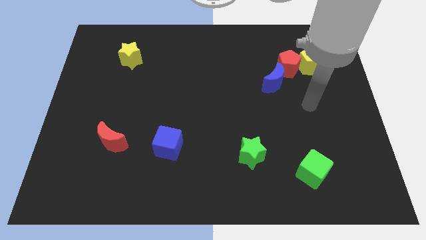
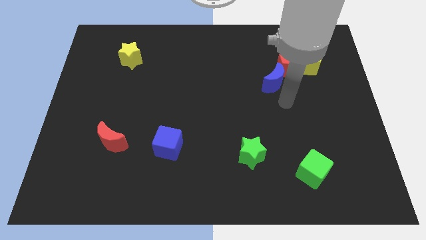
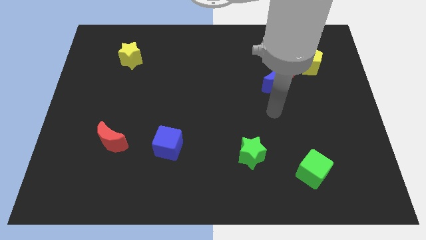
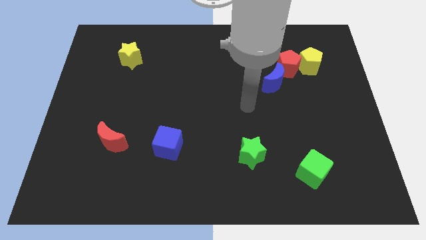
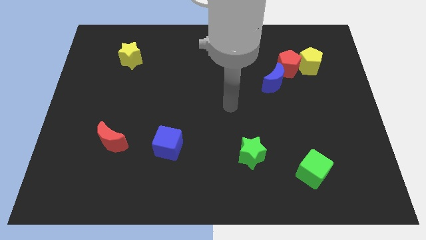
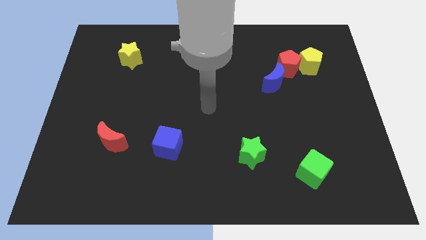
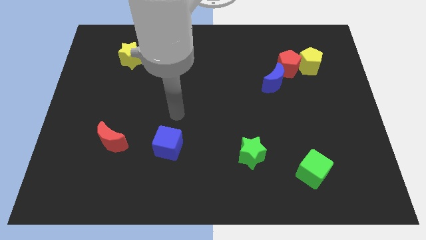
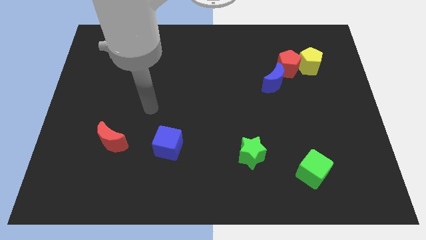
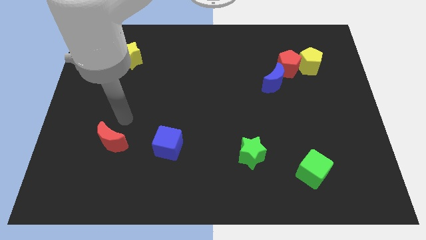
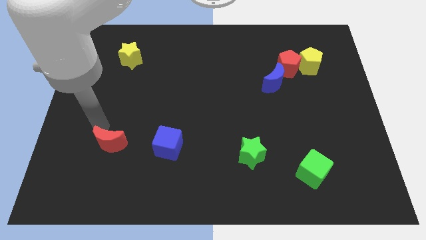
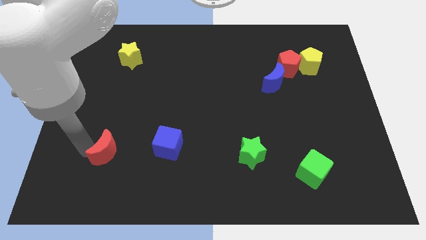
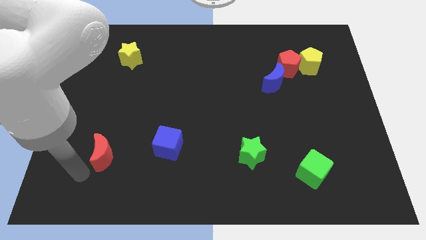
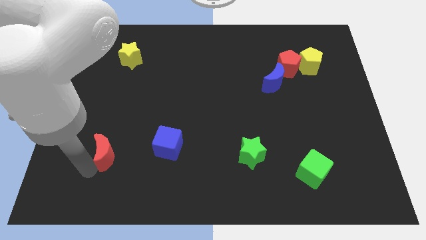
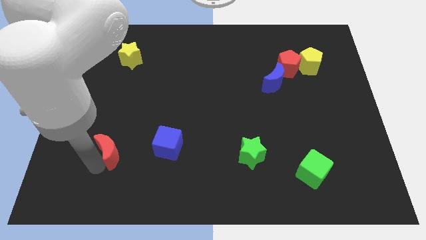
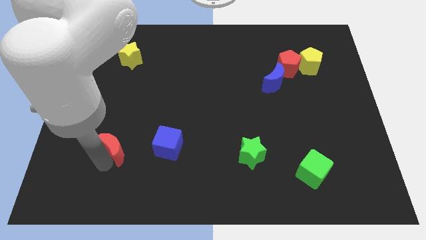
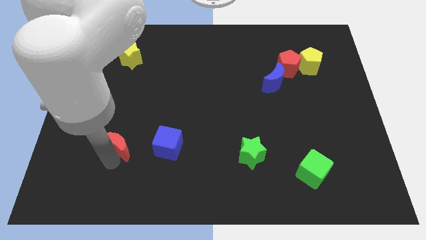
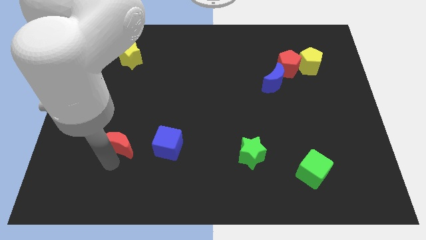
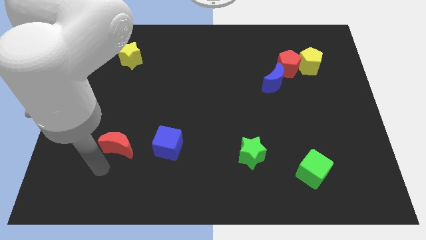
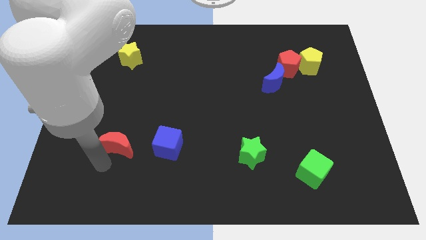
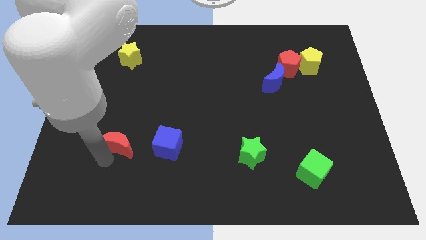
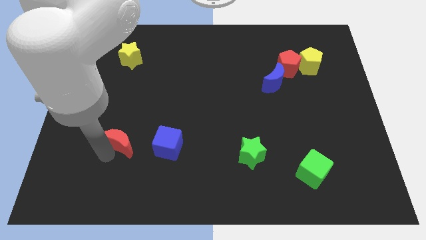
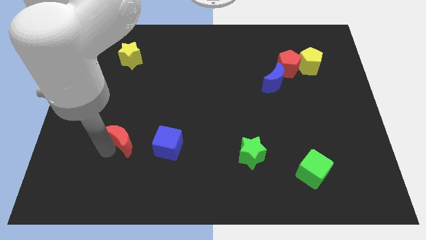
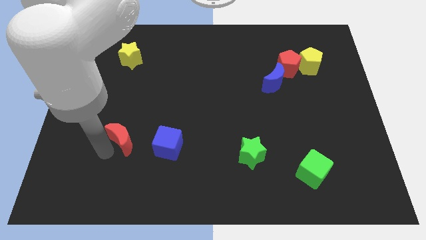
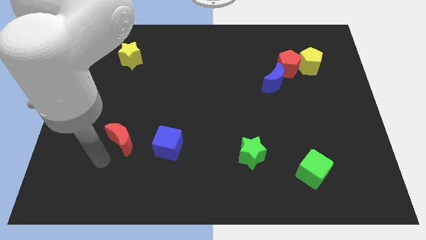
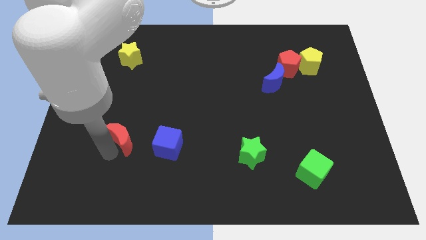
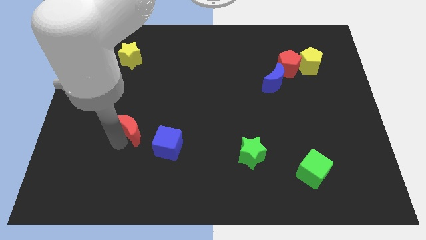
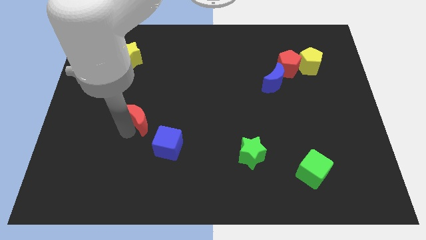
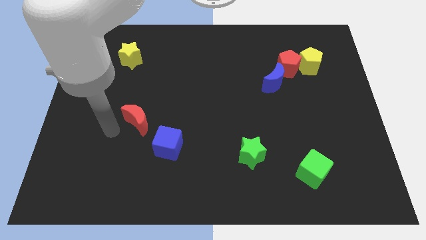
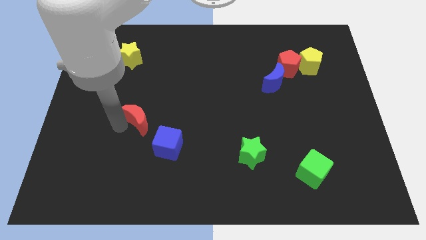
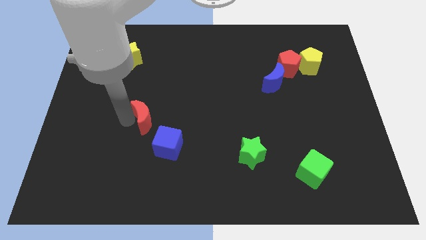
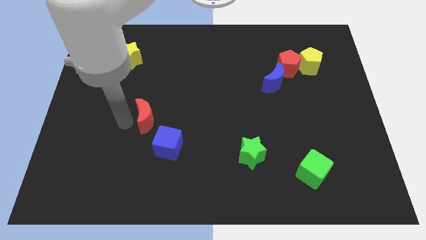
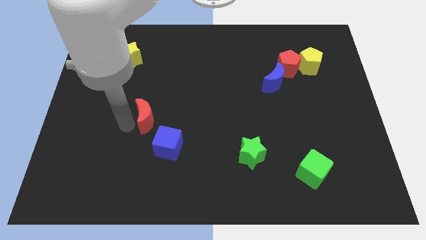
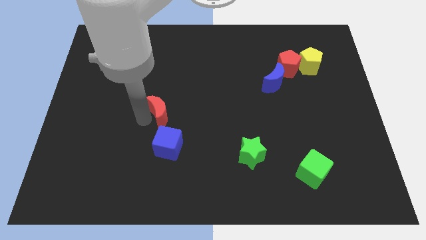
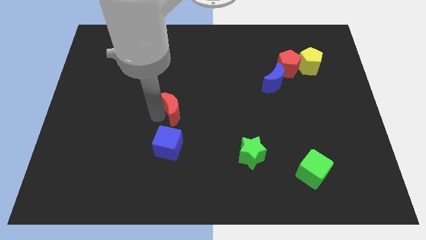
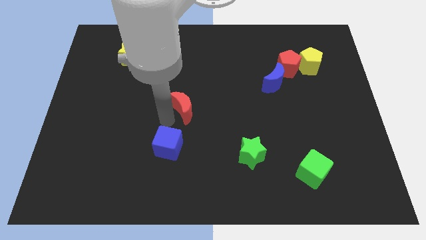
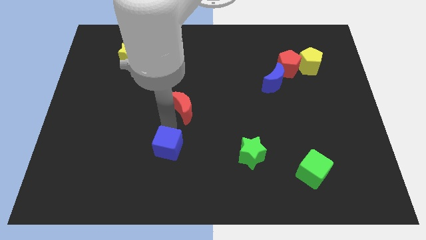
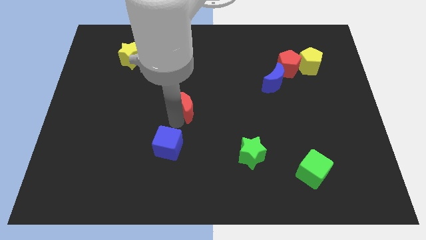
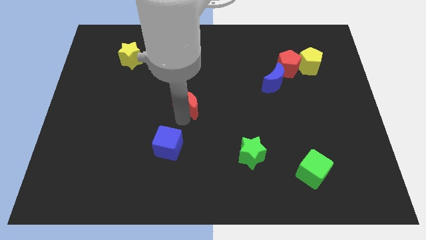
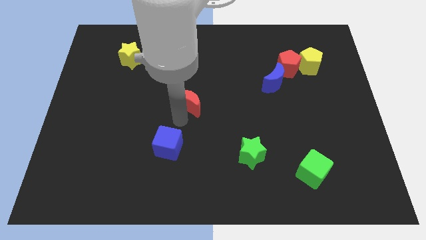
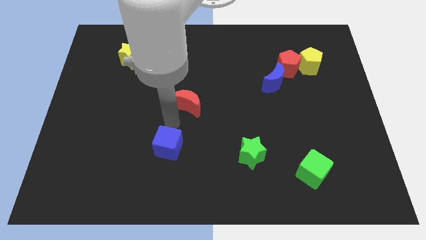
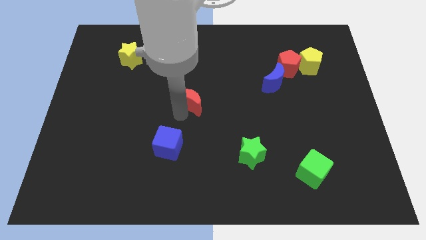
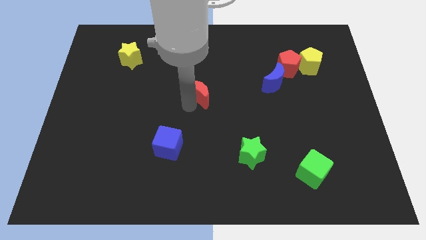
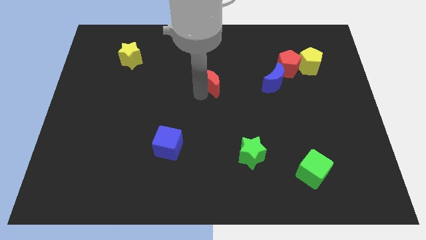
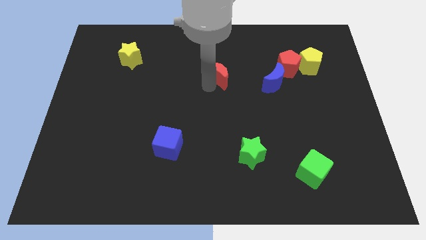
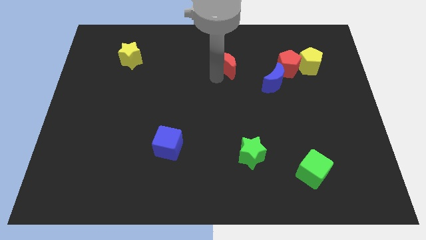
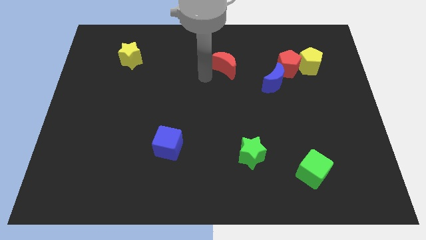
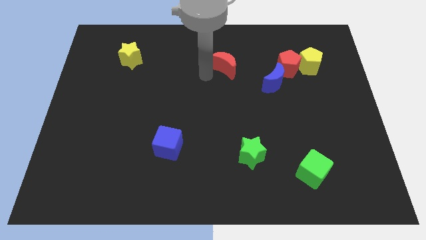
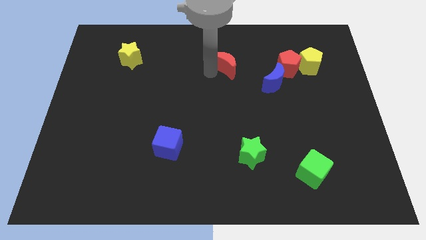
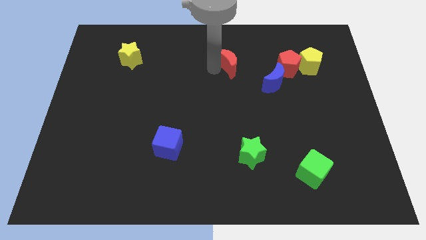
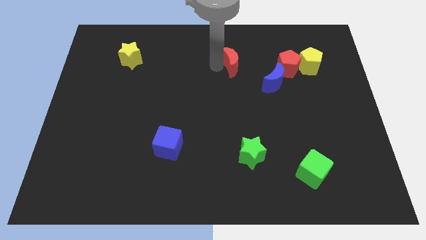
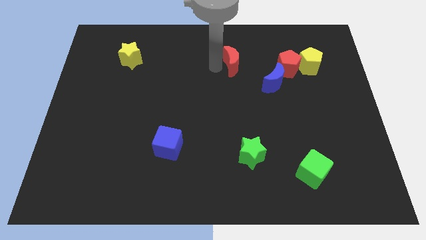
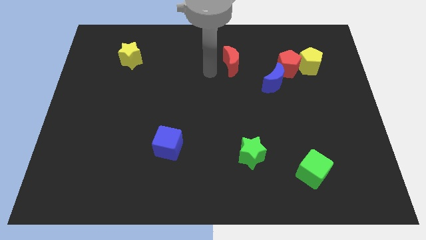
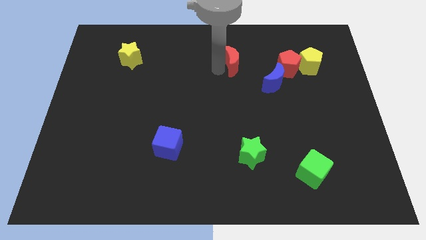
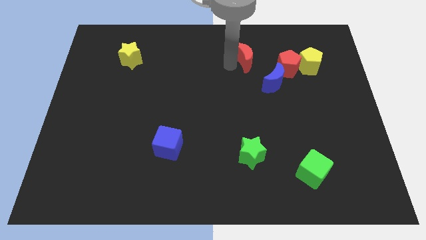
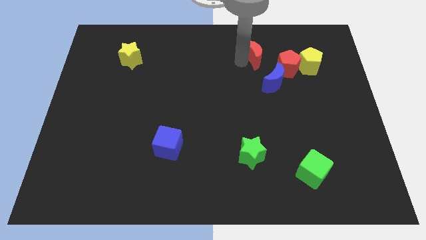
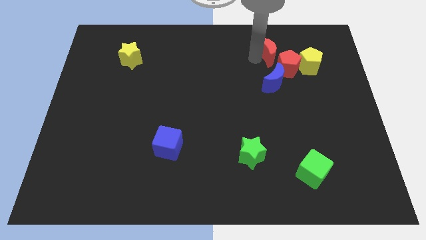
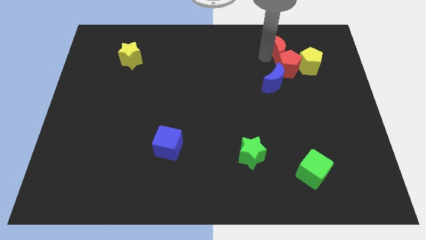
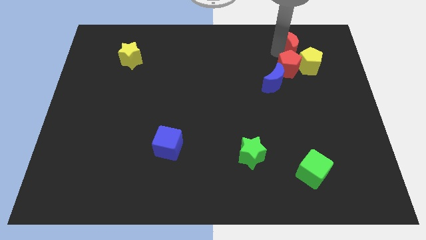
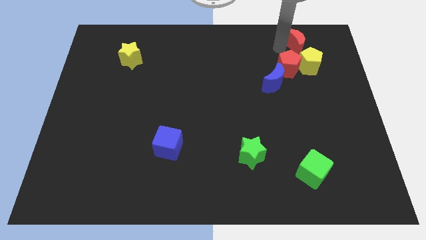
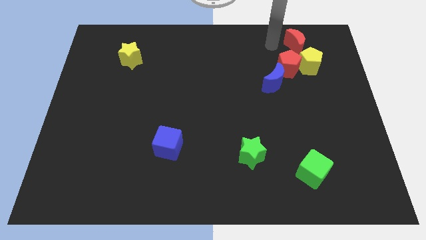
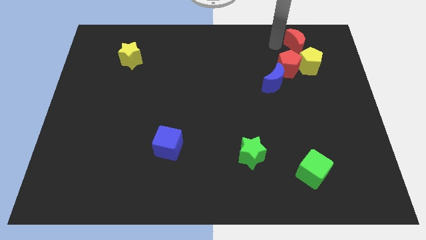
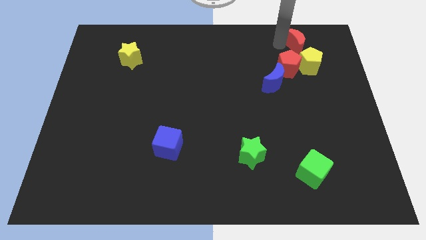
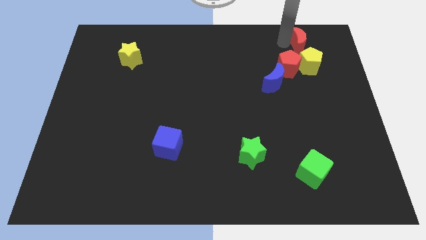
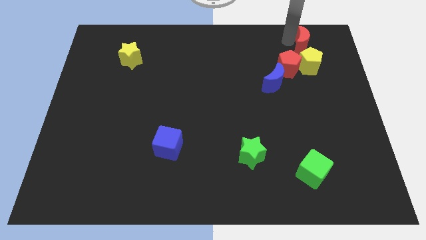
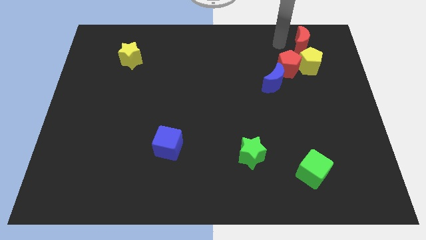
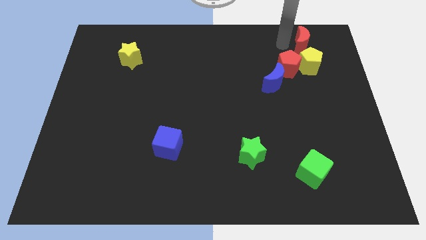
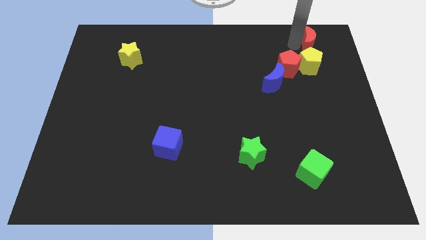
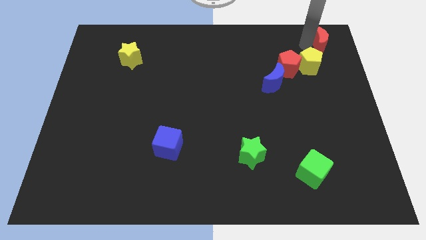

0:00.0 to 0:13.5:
put the red moon to the top right of the board
